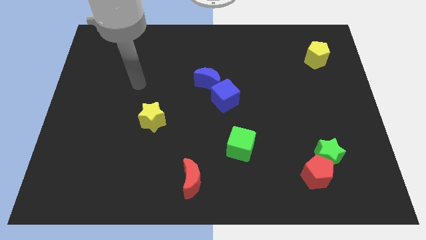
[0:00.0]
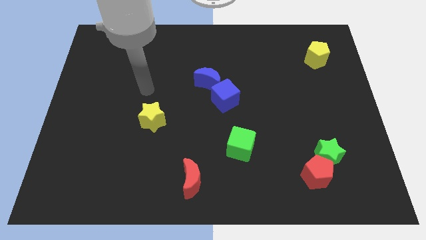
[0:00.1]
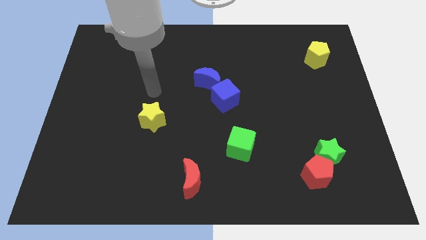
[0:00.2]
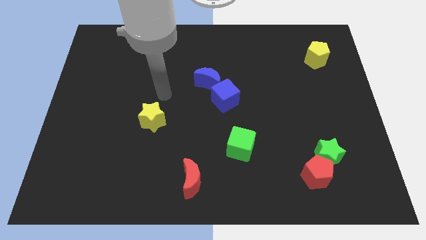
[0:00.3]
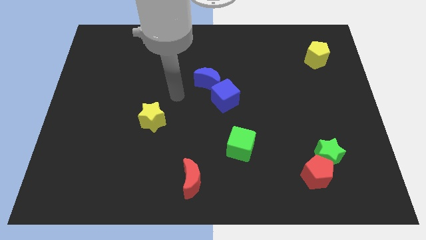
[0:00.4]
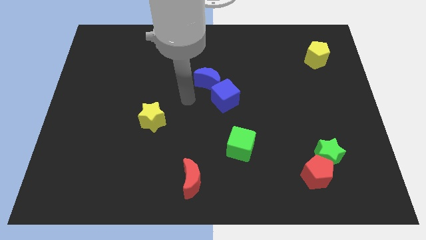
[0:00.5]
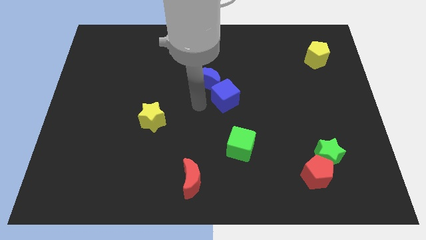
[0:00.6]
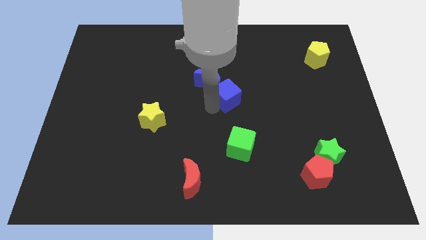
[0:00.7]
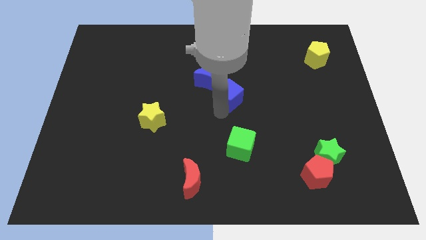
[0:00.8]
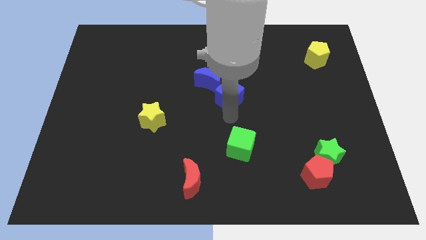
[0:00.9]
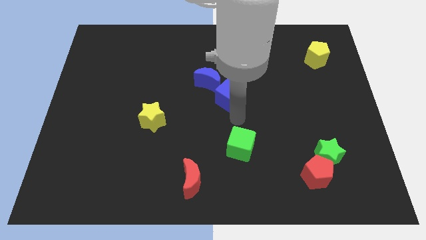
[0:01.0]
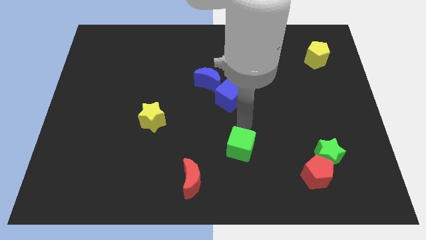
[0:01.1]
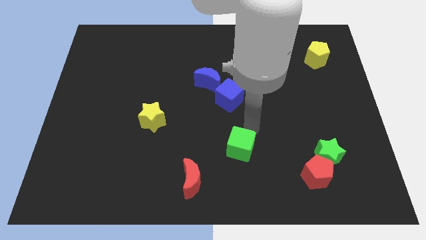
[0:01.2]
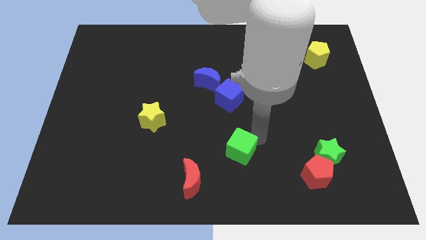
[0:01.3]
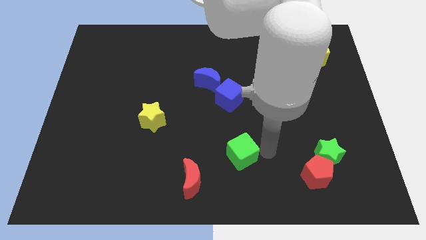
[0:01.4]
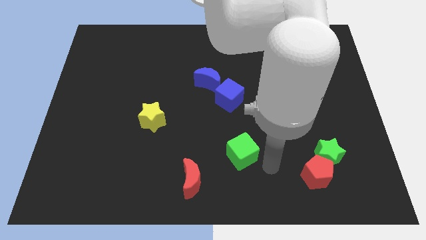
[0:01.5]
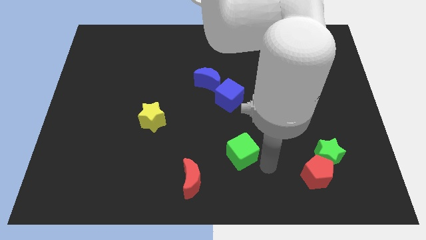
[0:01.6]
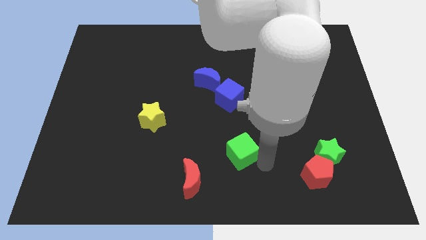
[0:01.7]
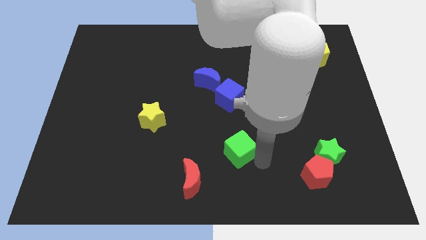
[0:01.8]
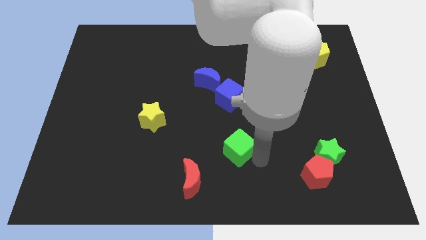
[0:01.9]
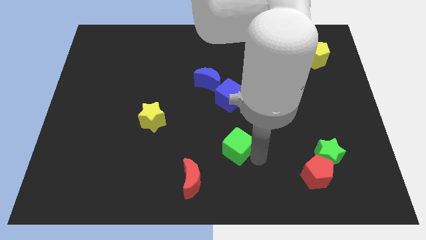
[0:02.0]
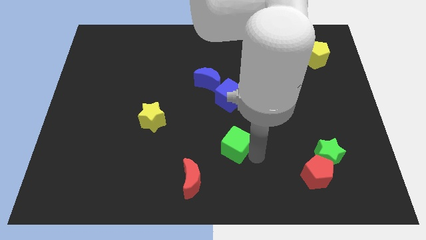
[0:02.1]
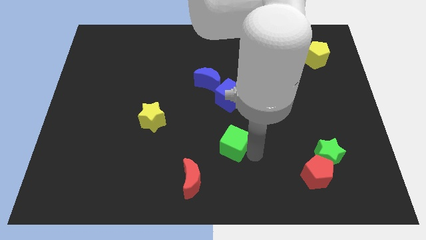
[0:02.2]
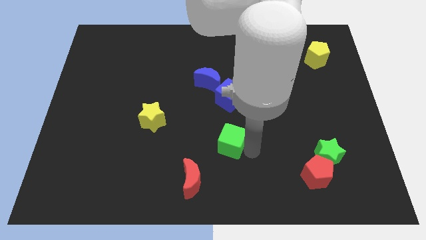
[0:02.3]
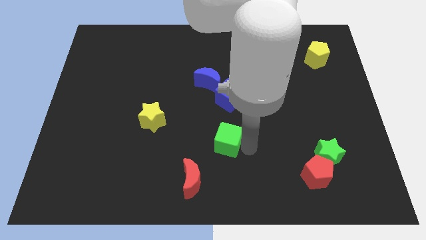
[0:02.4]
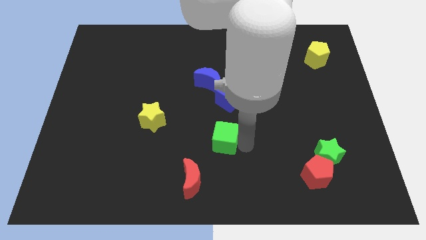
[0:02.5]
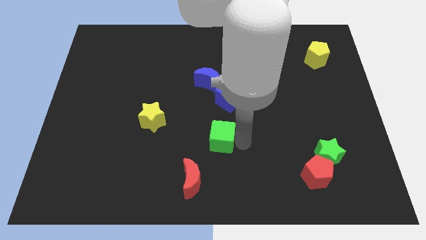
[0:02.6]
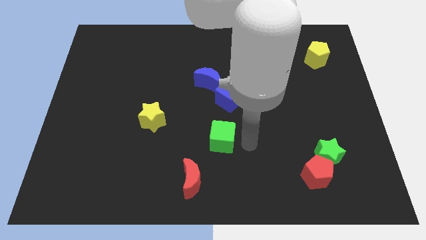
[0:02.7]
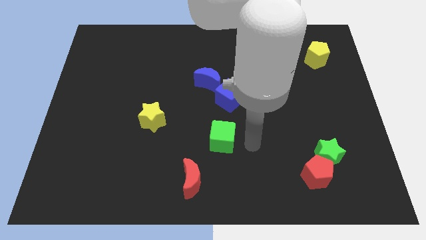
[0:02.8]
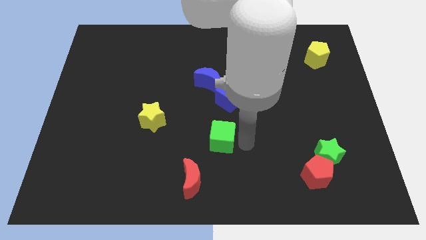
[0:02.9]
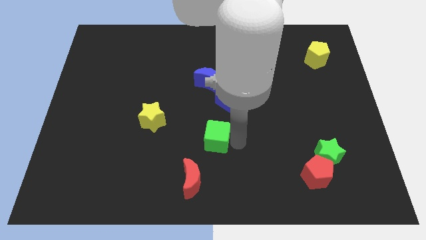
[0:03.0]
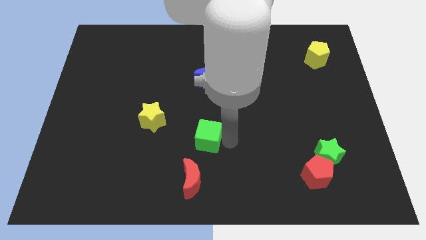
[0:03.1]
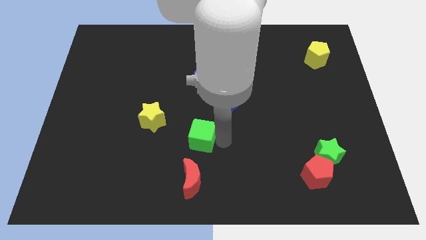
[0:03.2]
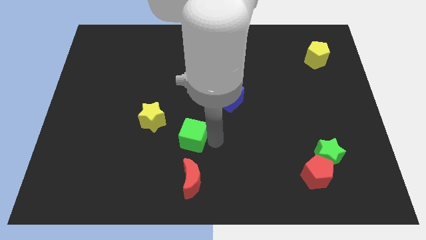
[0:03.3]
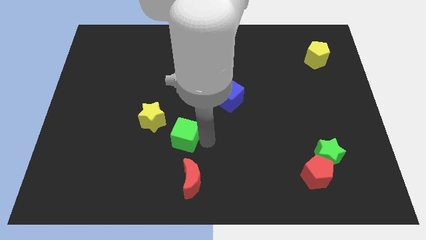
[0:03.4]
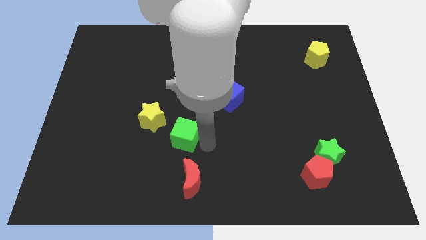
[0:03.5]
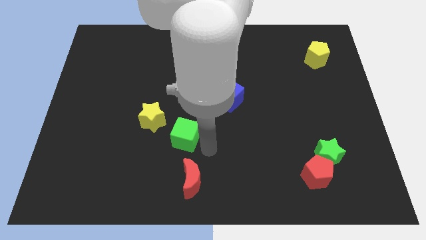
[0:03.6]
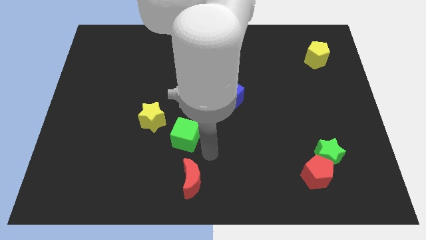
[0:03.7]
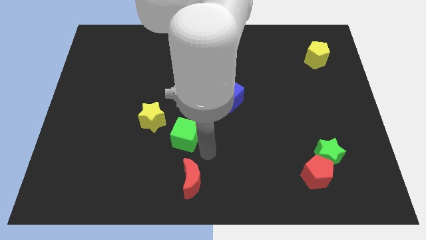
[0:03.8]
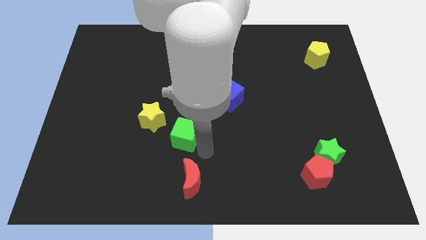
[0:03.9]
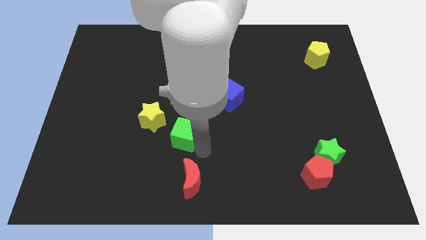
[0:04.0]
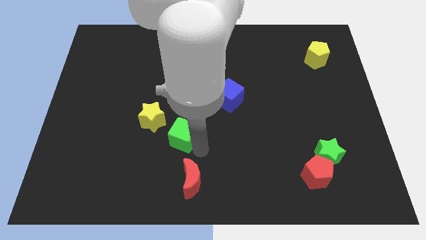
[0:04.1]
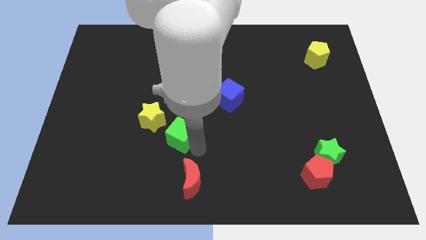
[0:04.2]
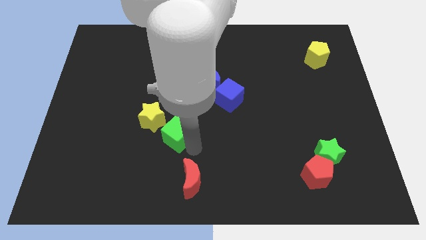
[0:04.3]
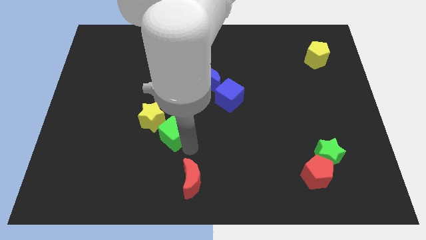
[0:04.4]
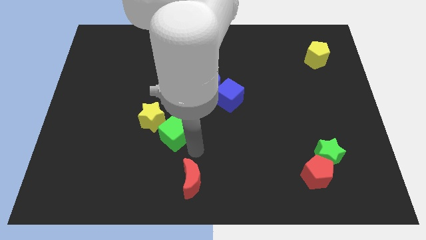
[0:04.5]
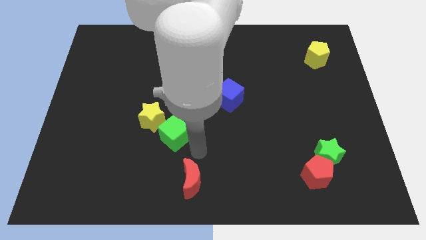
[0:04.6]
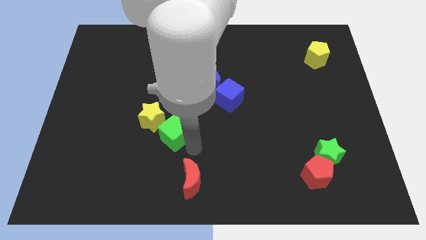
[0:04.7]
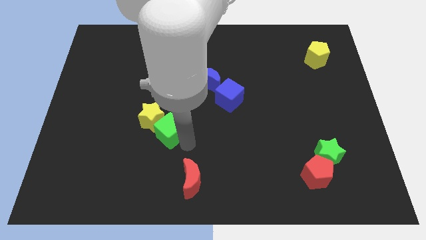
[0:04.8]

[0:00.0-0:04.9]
push the green cube towards the yellow star

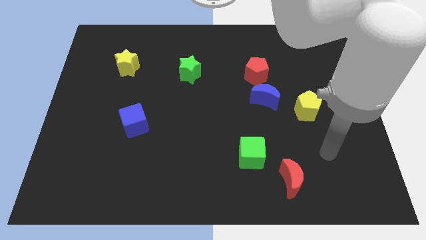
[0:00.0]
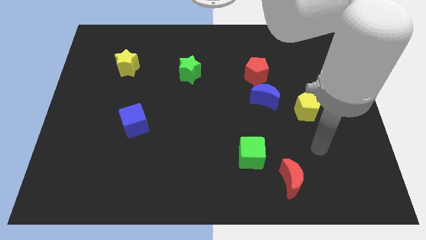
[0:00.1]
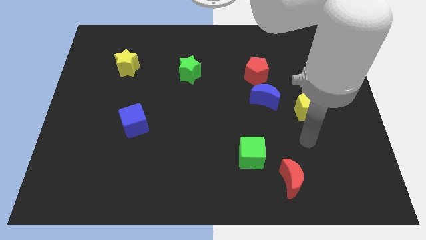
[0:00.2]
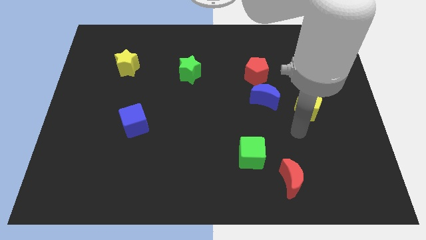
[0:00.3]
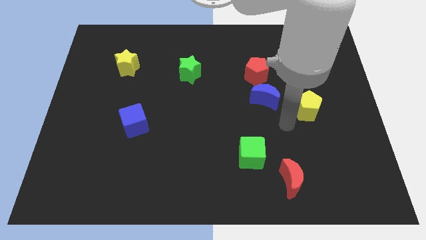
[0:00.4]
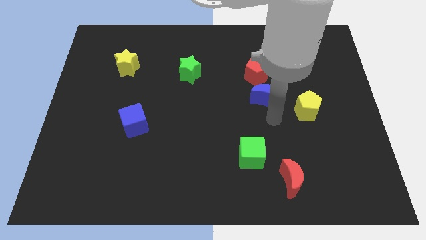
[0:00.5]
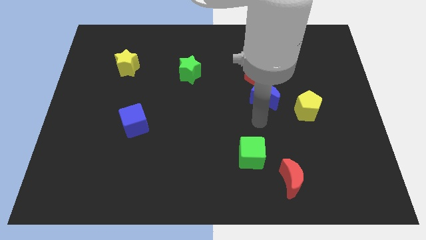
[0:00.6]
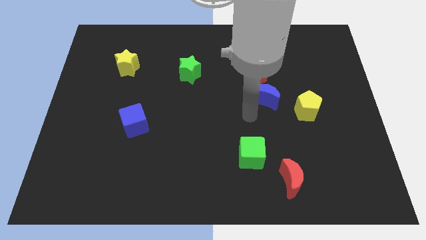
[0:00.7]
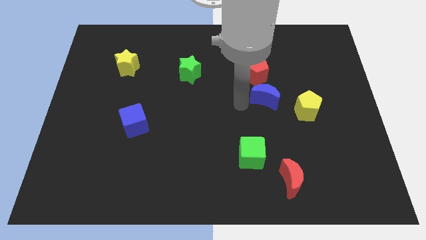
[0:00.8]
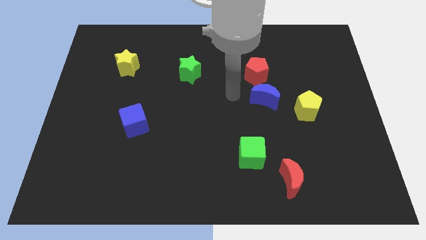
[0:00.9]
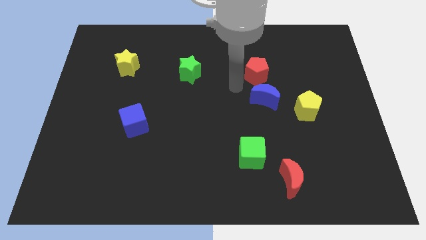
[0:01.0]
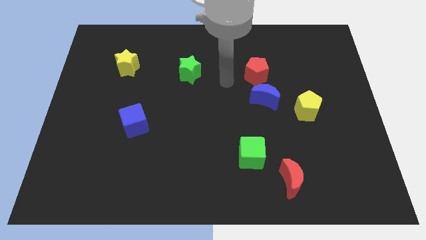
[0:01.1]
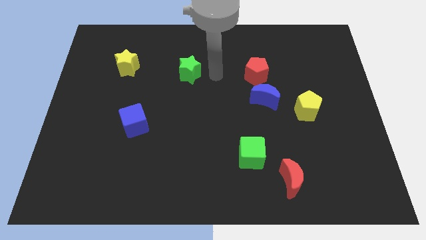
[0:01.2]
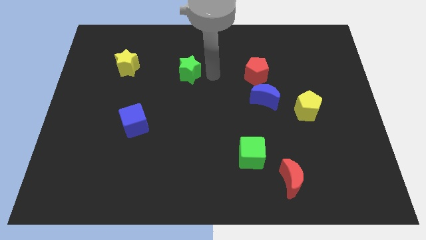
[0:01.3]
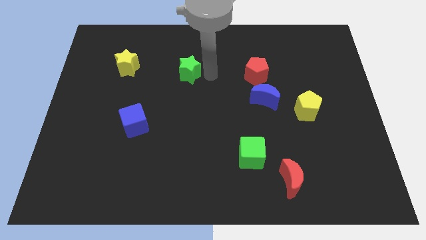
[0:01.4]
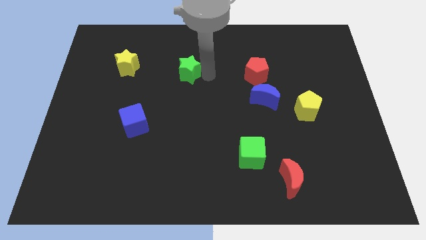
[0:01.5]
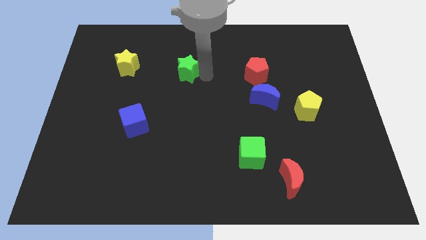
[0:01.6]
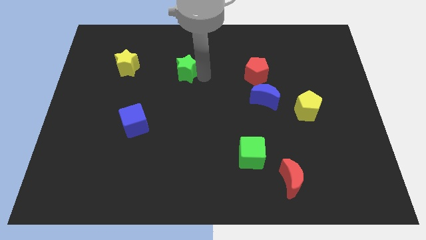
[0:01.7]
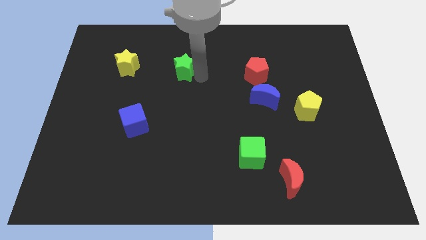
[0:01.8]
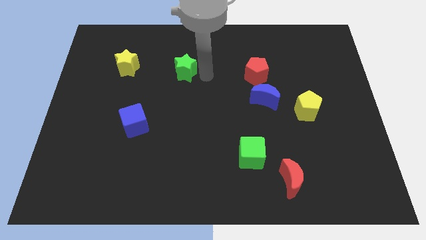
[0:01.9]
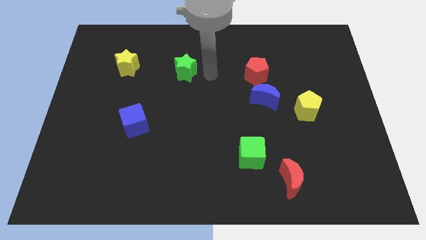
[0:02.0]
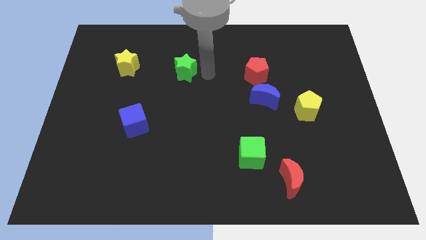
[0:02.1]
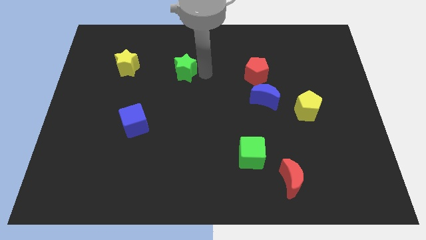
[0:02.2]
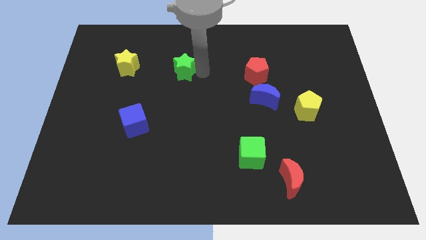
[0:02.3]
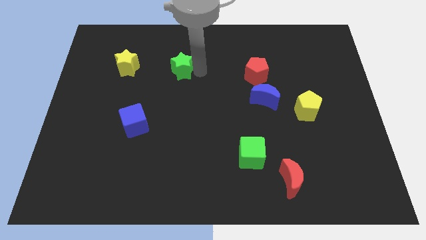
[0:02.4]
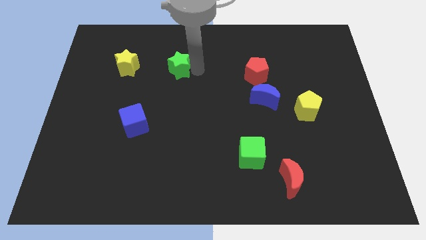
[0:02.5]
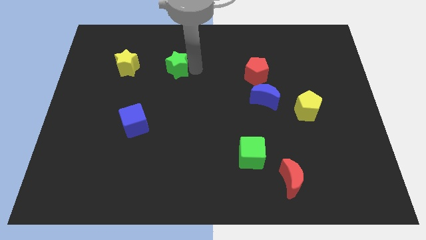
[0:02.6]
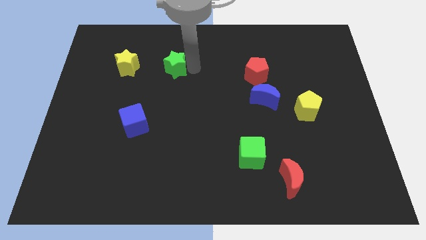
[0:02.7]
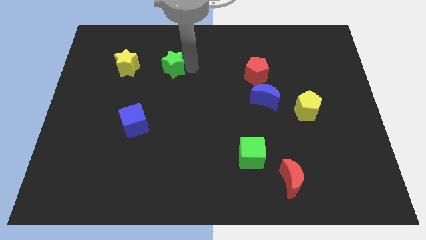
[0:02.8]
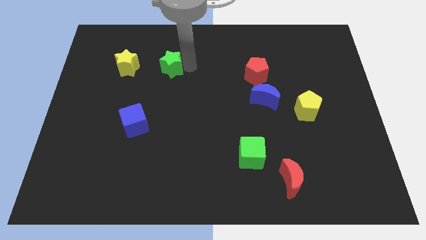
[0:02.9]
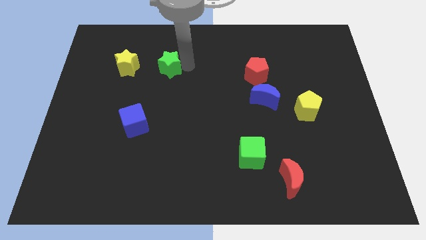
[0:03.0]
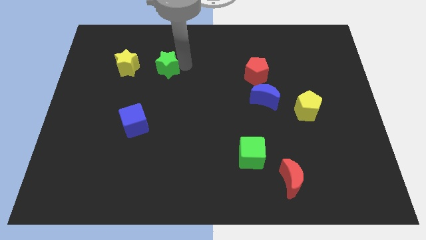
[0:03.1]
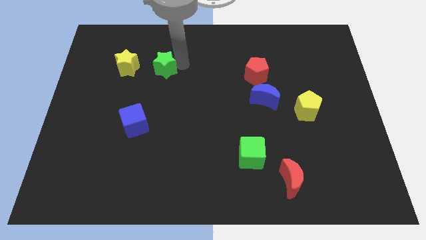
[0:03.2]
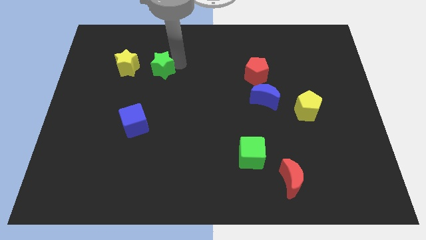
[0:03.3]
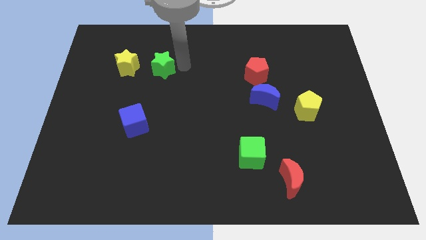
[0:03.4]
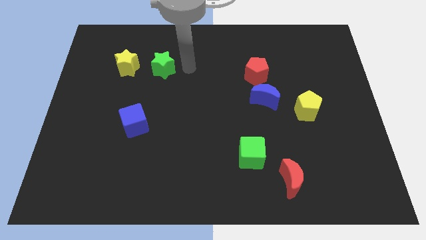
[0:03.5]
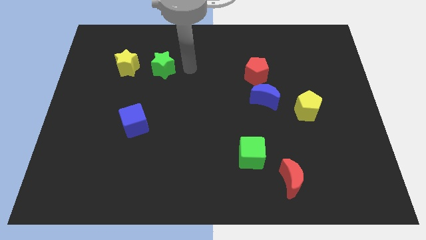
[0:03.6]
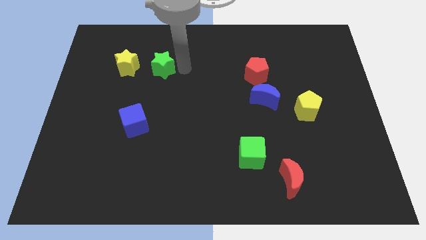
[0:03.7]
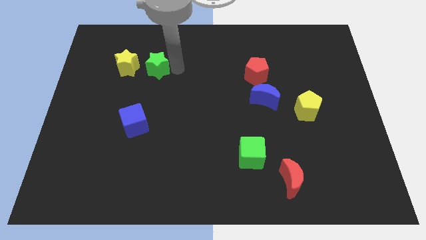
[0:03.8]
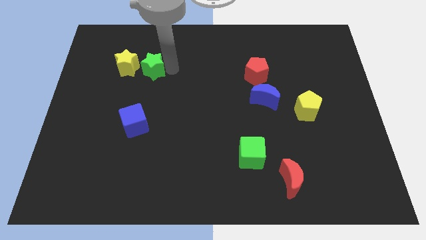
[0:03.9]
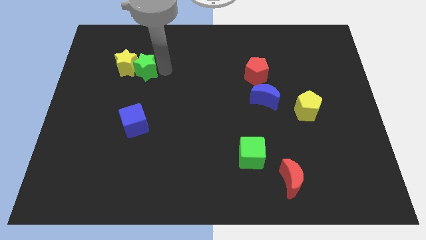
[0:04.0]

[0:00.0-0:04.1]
push the green star close to the yellow star
